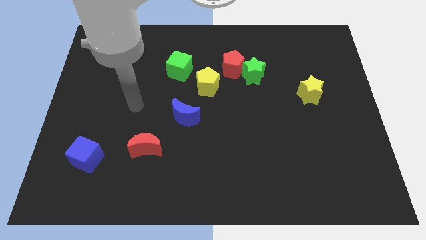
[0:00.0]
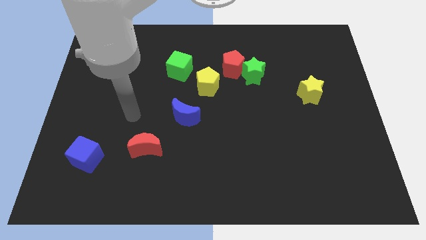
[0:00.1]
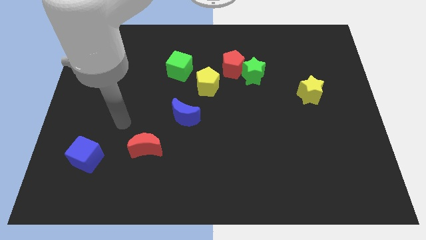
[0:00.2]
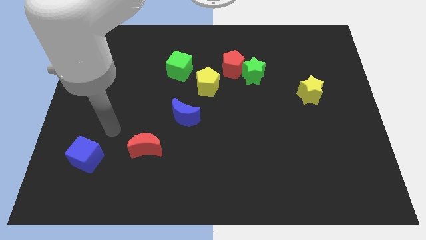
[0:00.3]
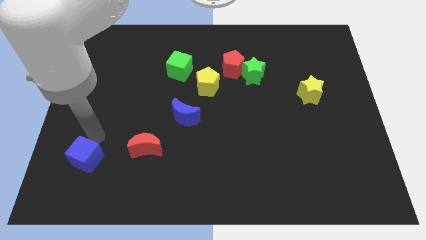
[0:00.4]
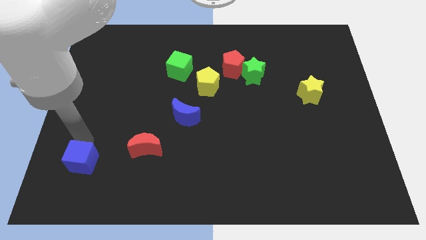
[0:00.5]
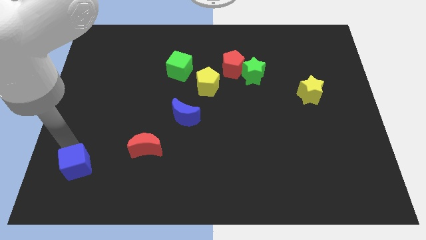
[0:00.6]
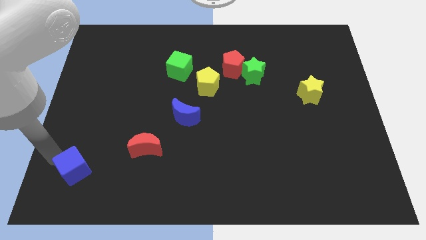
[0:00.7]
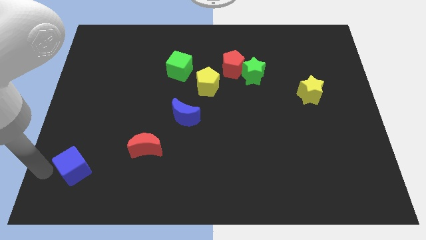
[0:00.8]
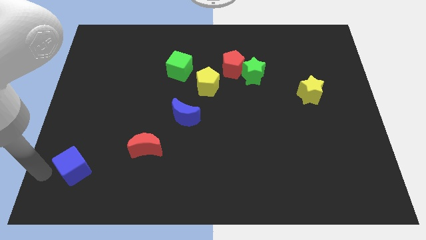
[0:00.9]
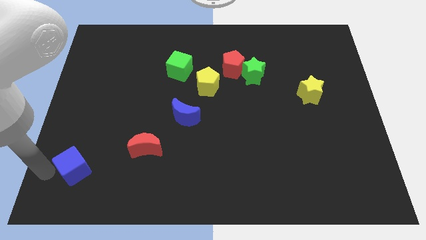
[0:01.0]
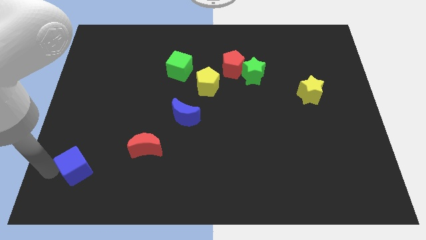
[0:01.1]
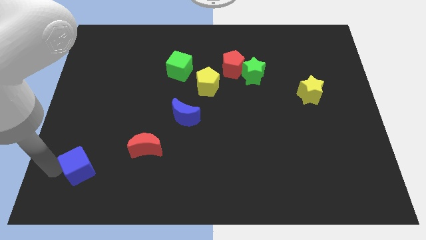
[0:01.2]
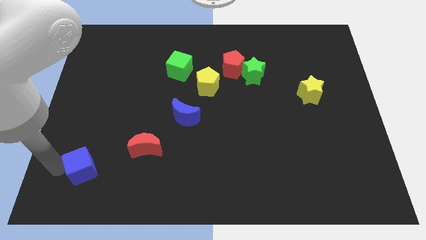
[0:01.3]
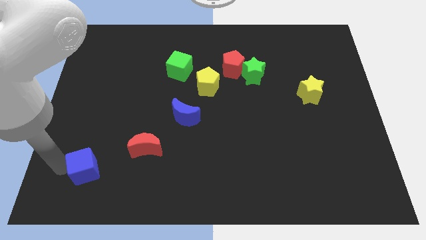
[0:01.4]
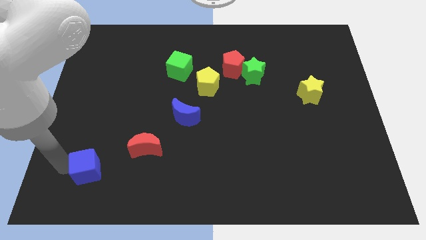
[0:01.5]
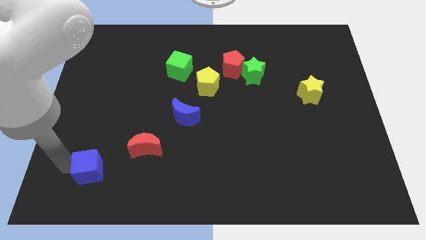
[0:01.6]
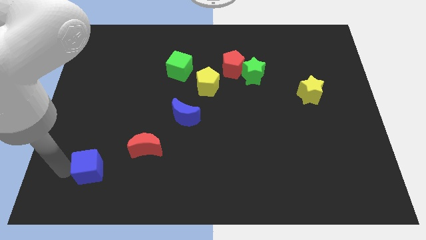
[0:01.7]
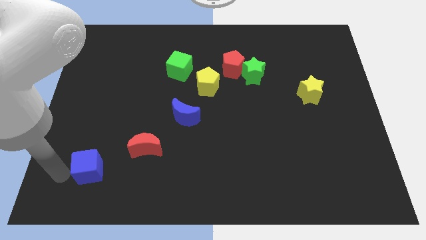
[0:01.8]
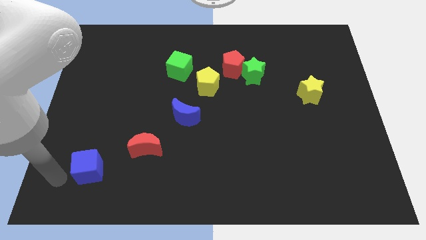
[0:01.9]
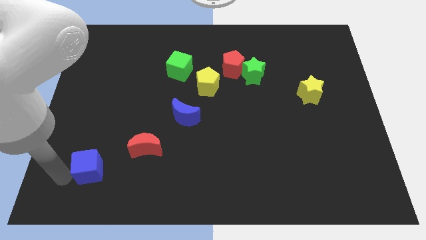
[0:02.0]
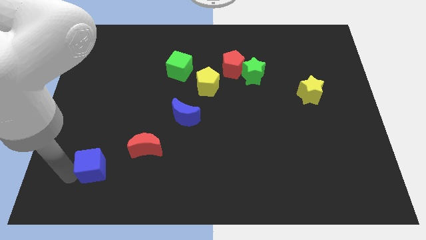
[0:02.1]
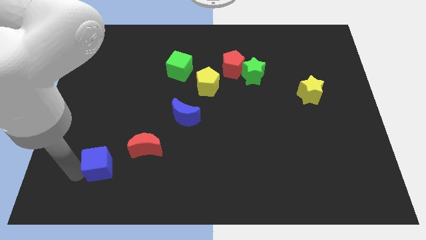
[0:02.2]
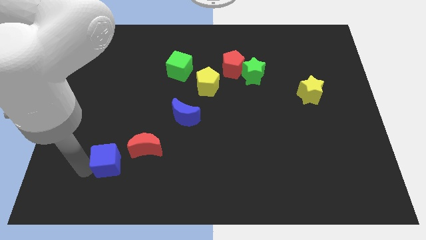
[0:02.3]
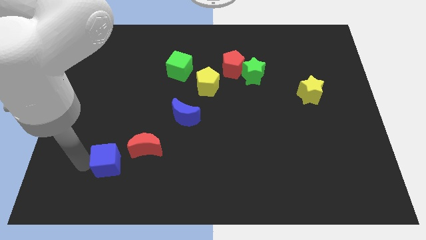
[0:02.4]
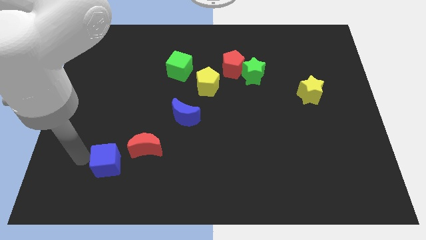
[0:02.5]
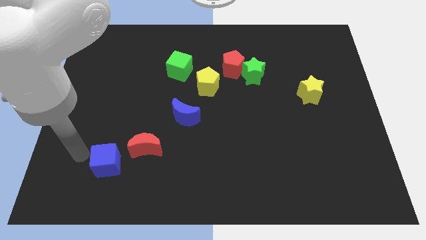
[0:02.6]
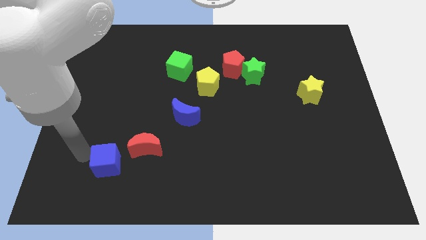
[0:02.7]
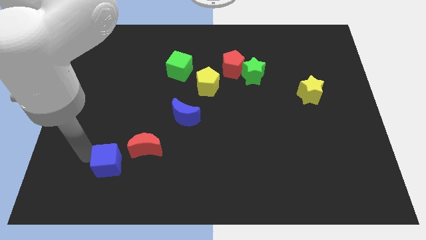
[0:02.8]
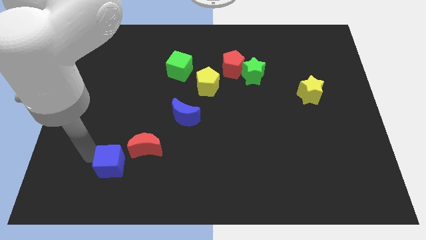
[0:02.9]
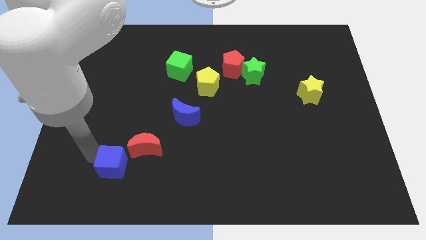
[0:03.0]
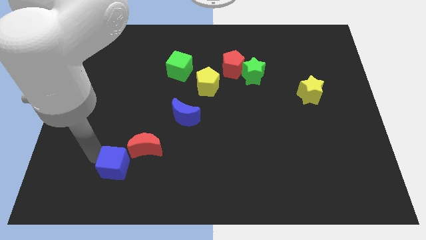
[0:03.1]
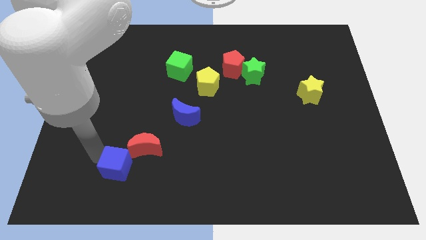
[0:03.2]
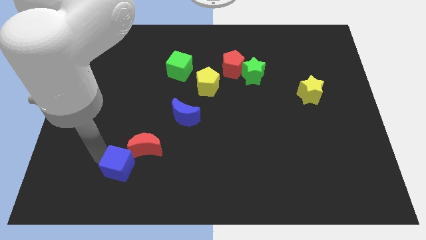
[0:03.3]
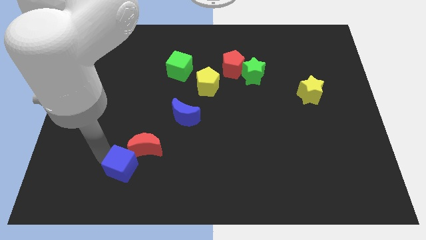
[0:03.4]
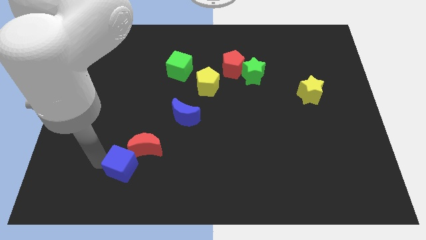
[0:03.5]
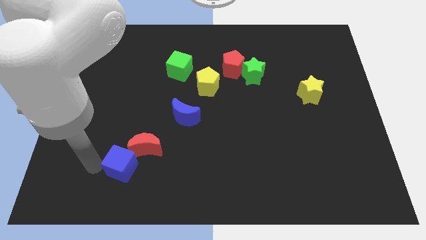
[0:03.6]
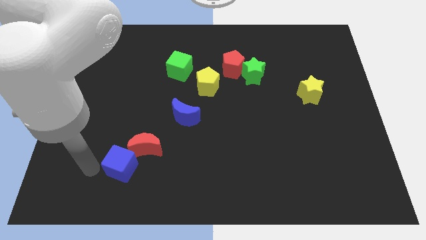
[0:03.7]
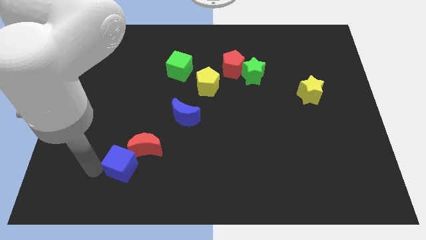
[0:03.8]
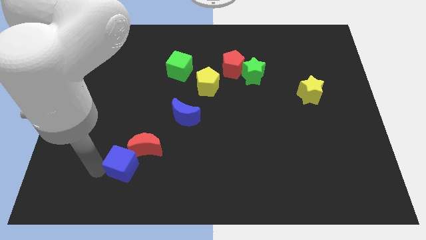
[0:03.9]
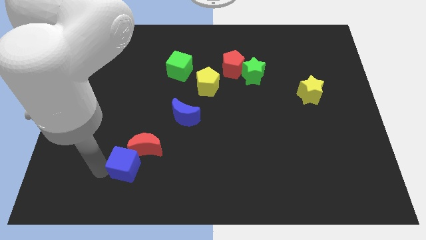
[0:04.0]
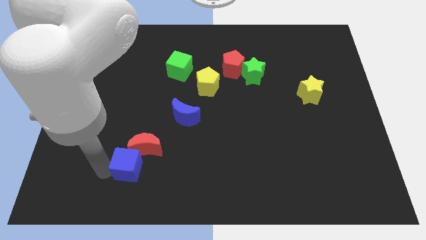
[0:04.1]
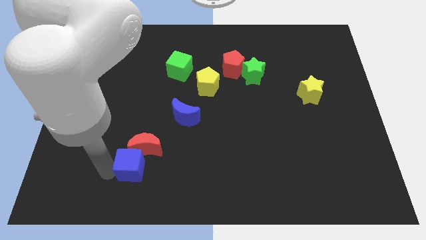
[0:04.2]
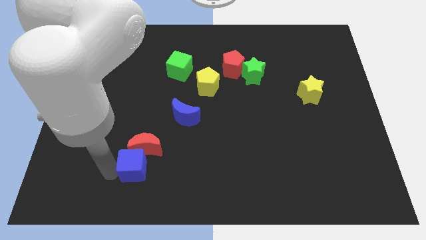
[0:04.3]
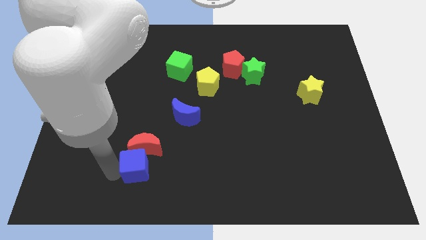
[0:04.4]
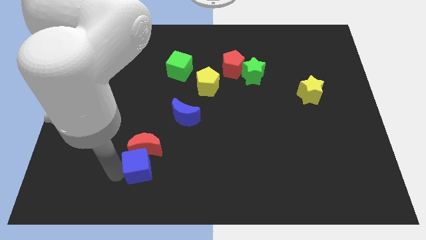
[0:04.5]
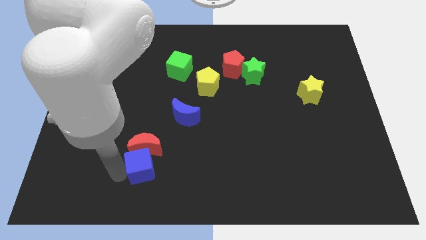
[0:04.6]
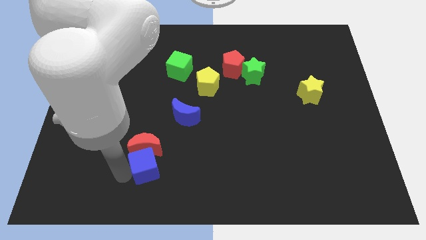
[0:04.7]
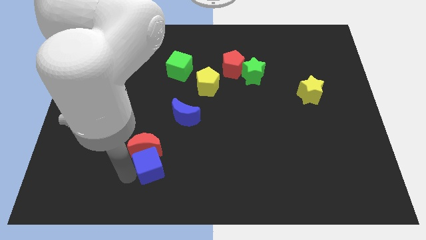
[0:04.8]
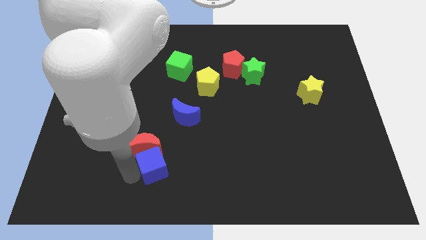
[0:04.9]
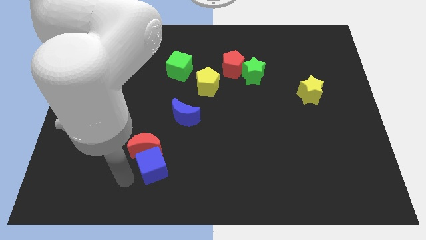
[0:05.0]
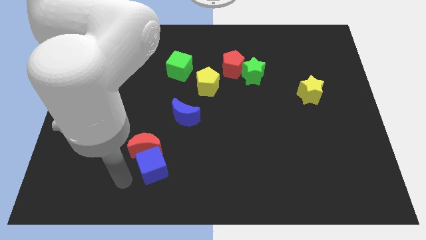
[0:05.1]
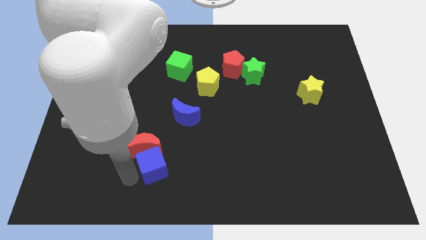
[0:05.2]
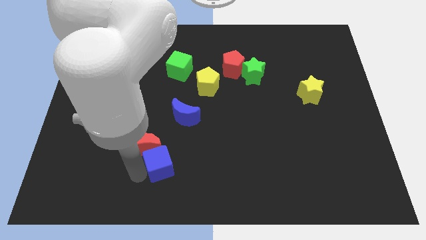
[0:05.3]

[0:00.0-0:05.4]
slide the blue cube to the bottom side of the blue moon

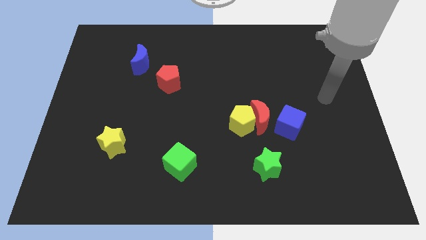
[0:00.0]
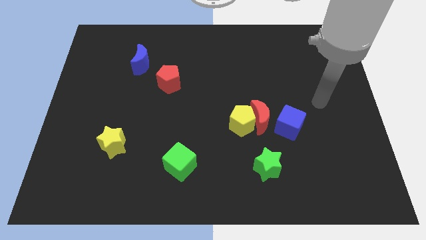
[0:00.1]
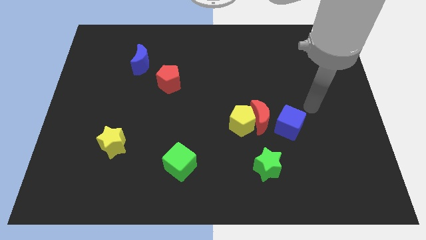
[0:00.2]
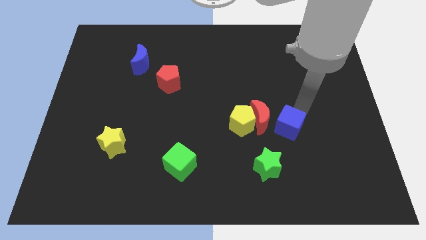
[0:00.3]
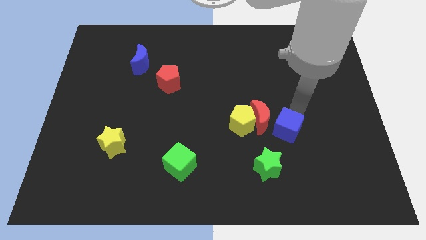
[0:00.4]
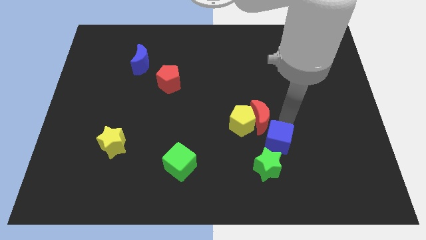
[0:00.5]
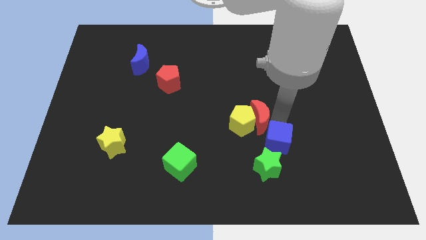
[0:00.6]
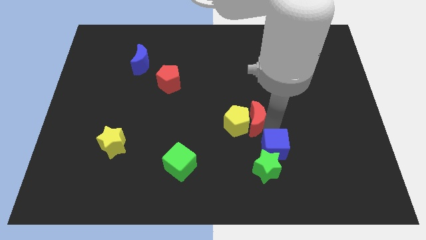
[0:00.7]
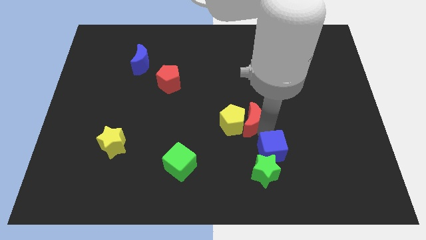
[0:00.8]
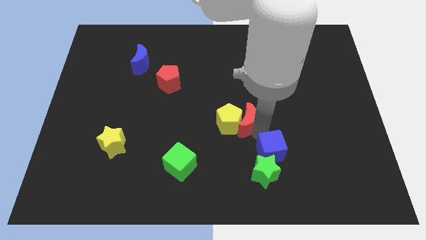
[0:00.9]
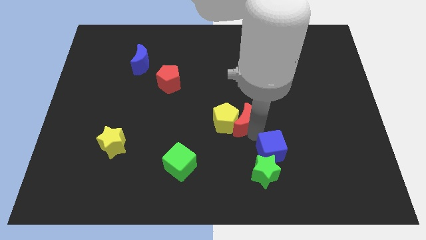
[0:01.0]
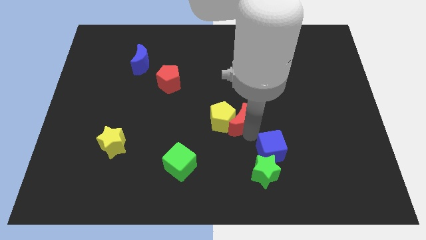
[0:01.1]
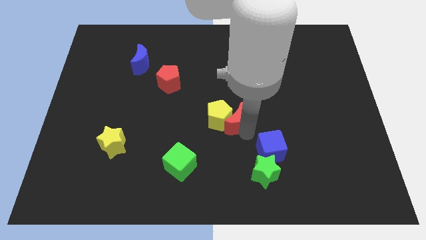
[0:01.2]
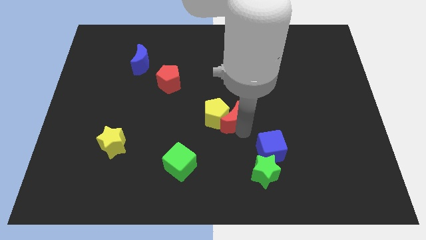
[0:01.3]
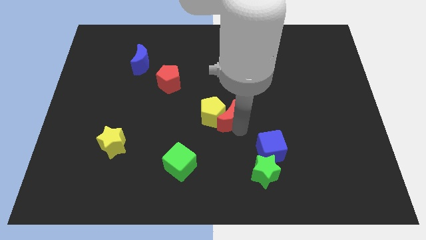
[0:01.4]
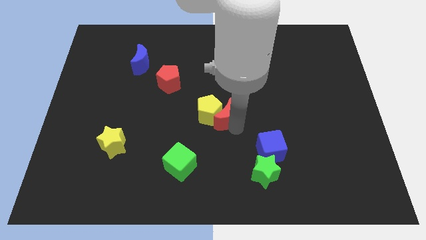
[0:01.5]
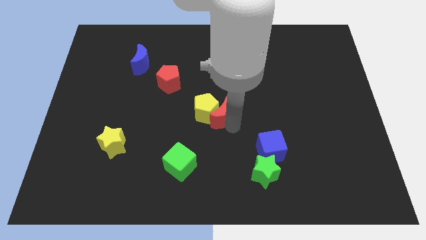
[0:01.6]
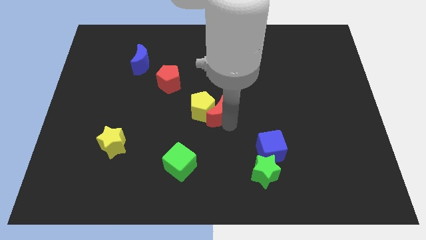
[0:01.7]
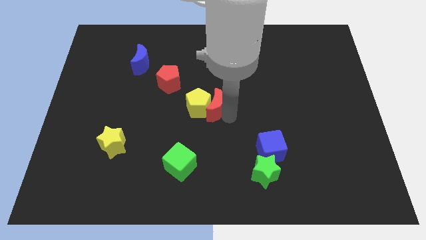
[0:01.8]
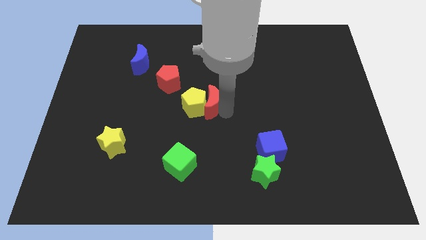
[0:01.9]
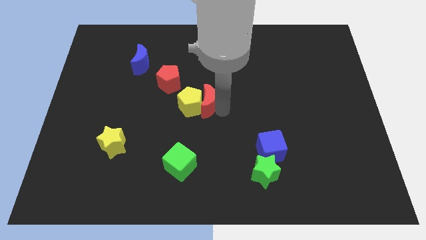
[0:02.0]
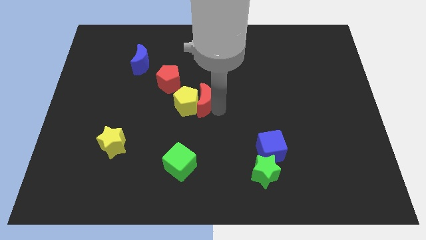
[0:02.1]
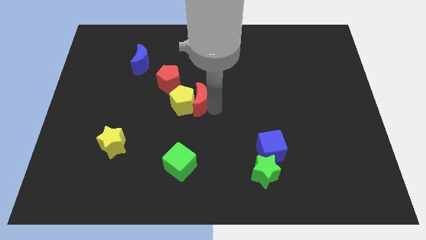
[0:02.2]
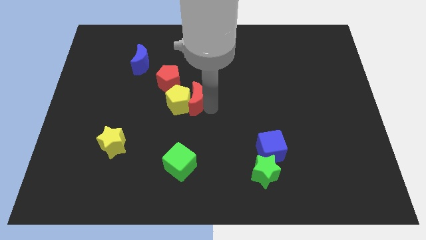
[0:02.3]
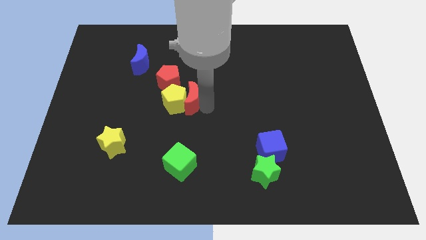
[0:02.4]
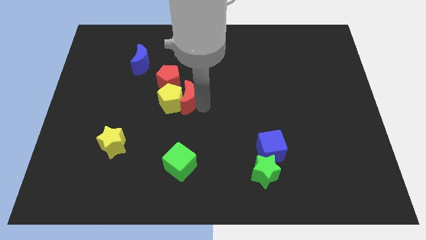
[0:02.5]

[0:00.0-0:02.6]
push the yellow pentagon diagonally down and to the left of the red pentagon
